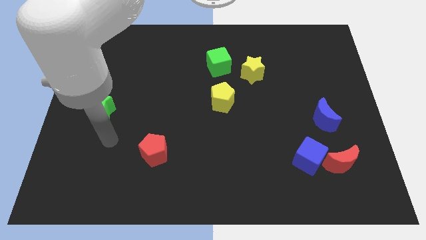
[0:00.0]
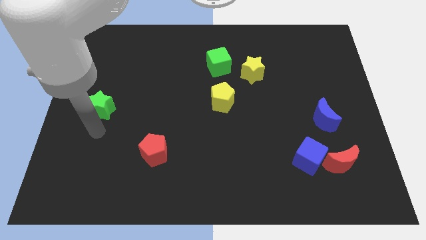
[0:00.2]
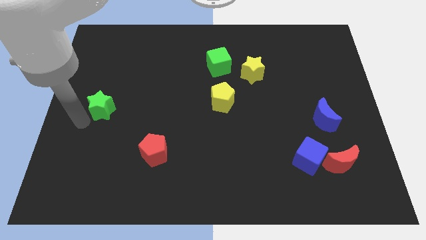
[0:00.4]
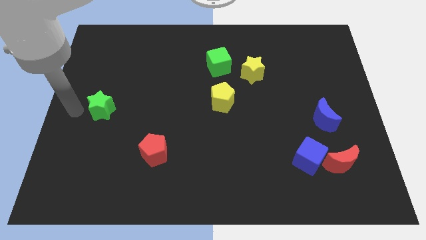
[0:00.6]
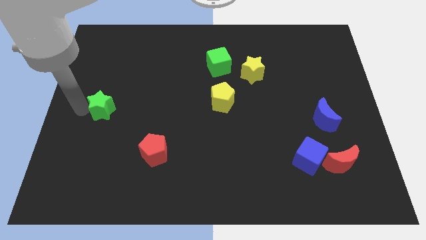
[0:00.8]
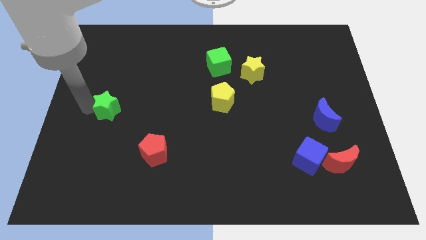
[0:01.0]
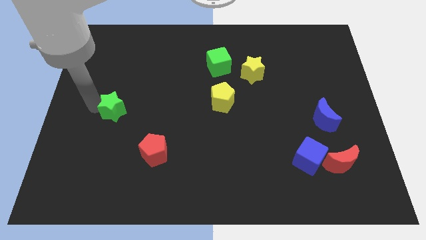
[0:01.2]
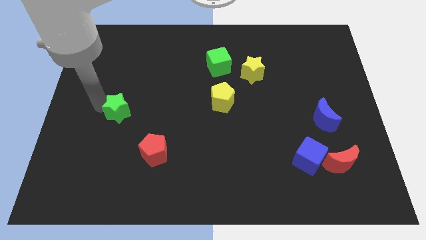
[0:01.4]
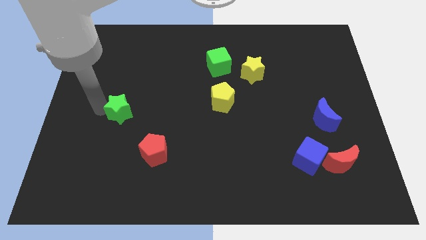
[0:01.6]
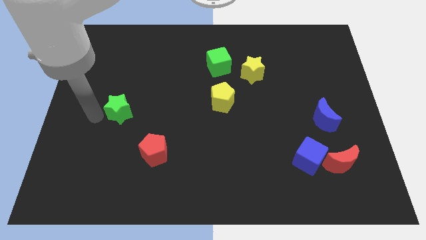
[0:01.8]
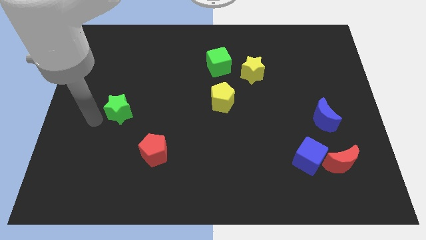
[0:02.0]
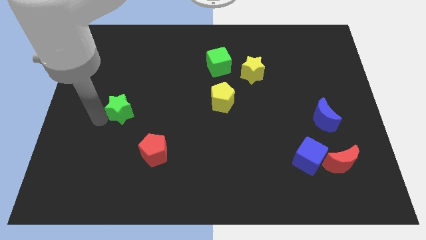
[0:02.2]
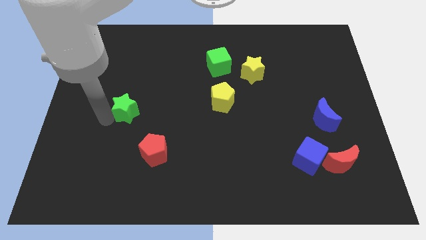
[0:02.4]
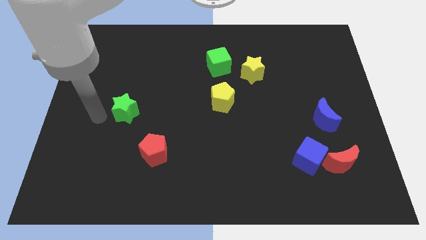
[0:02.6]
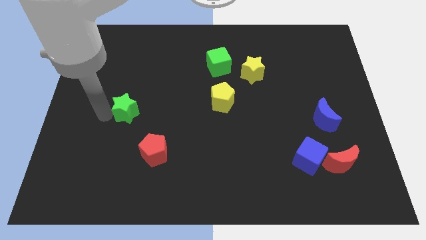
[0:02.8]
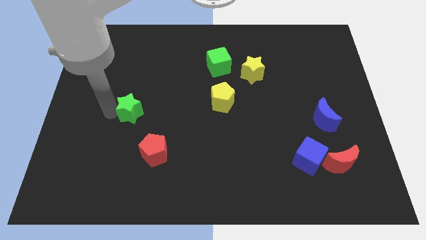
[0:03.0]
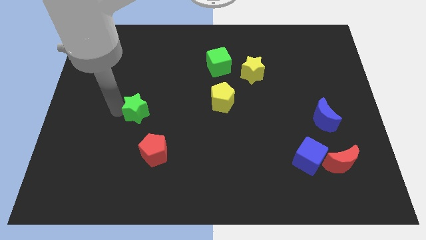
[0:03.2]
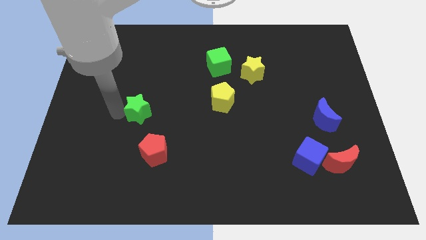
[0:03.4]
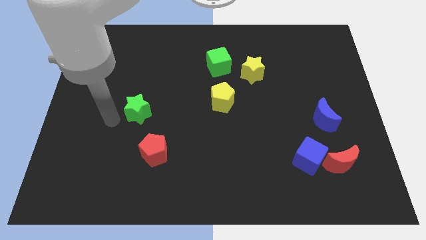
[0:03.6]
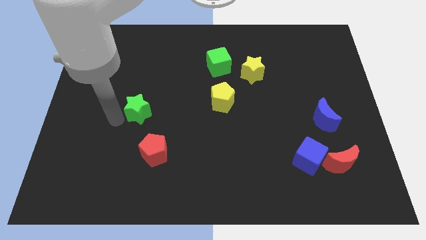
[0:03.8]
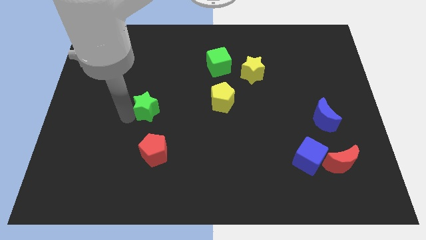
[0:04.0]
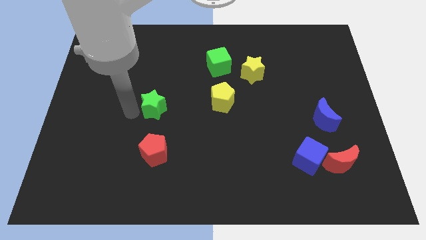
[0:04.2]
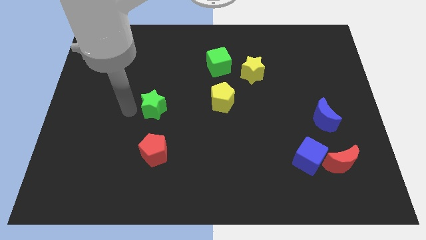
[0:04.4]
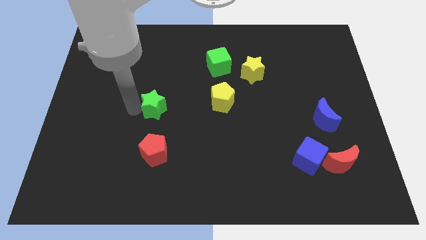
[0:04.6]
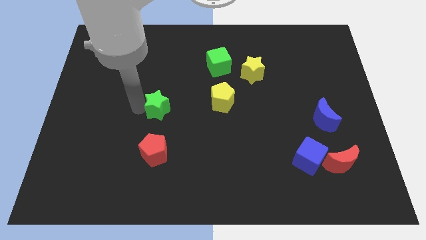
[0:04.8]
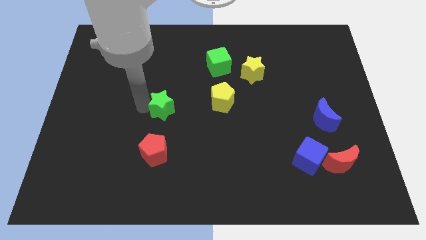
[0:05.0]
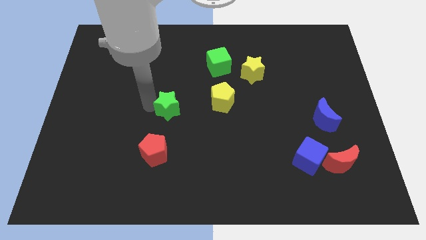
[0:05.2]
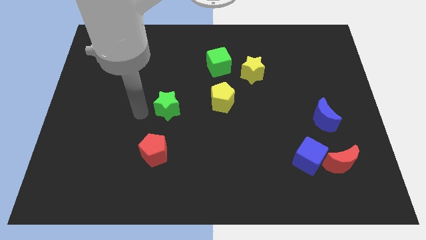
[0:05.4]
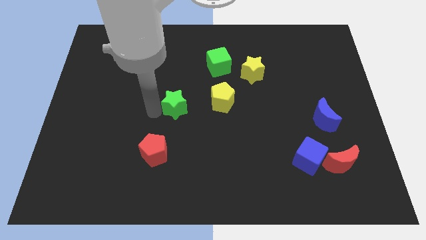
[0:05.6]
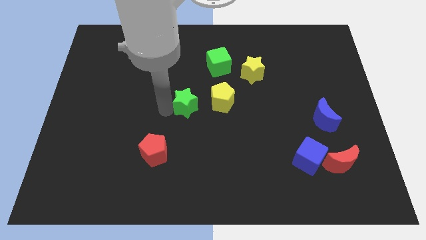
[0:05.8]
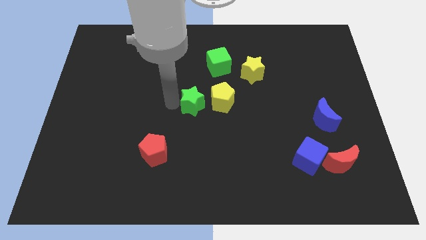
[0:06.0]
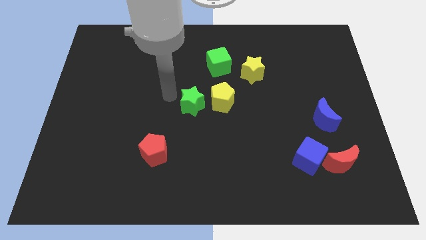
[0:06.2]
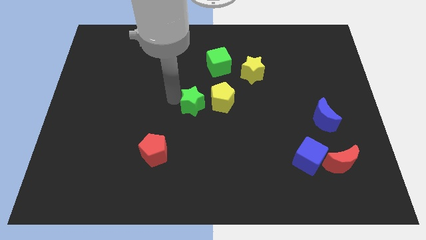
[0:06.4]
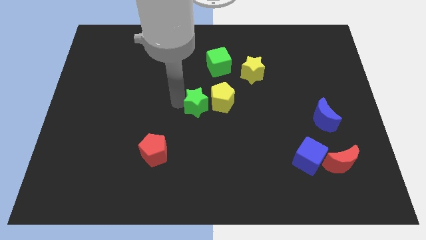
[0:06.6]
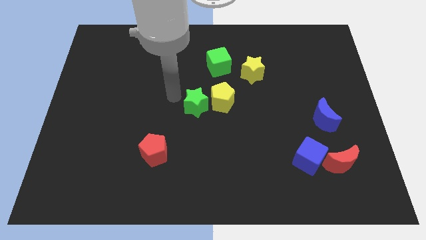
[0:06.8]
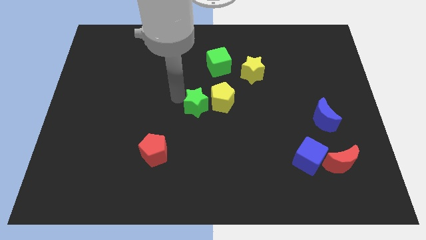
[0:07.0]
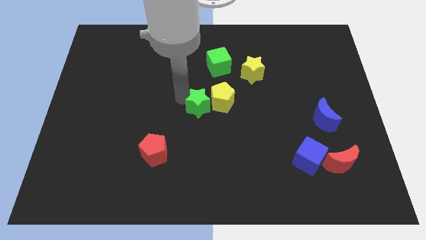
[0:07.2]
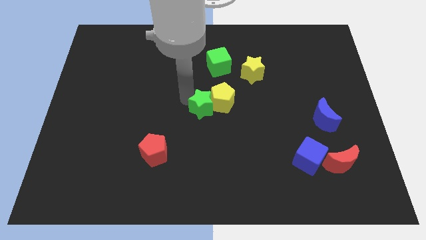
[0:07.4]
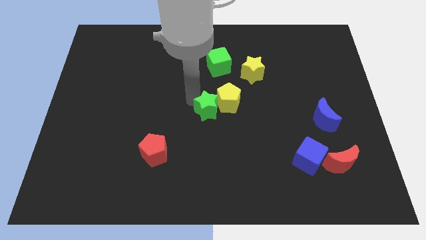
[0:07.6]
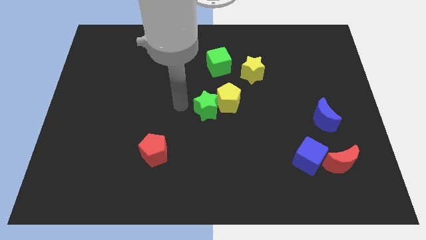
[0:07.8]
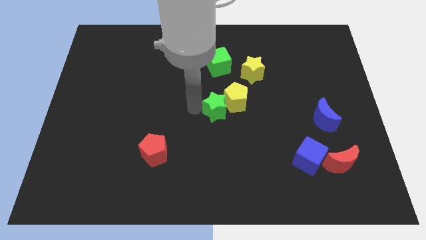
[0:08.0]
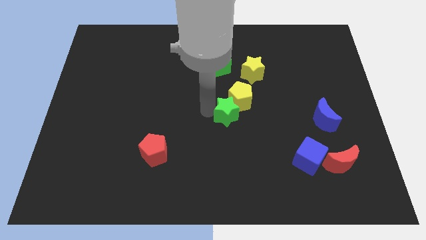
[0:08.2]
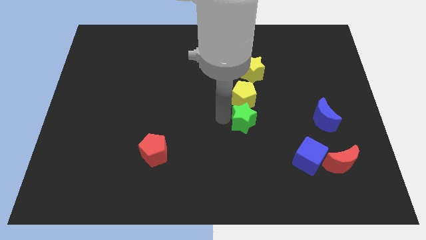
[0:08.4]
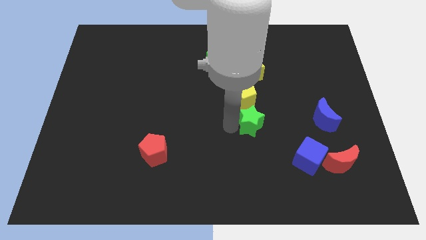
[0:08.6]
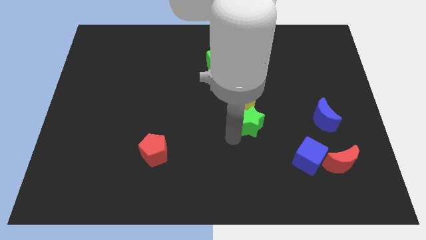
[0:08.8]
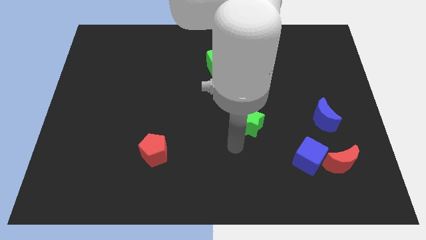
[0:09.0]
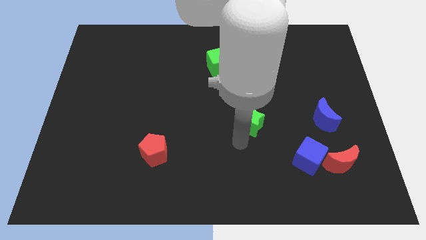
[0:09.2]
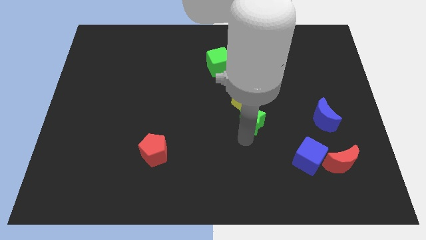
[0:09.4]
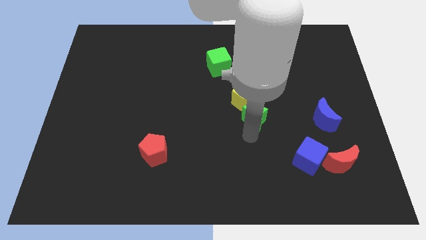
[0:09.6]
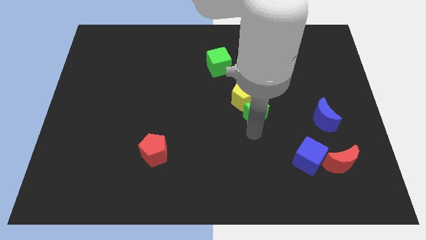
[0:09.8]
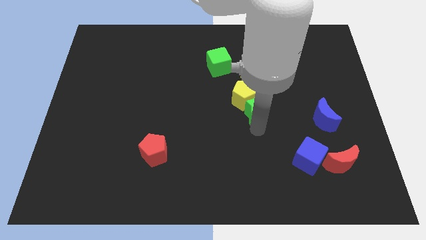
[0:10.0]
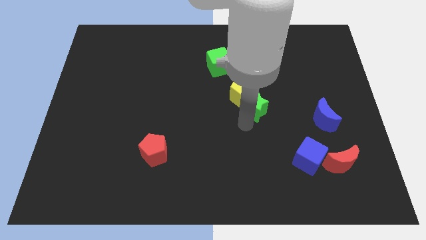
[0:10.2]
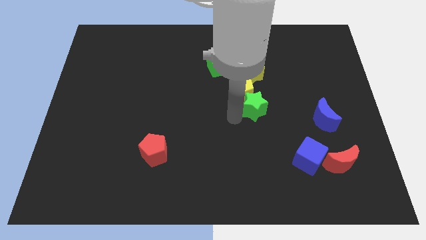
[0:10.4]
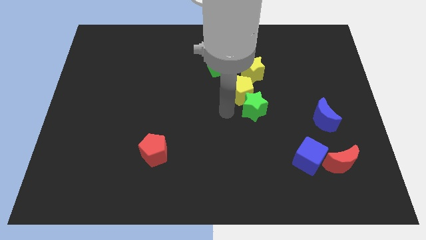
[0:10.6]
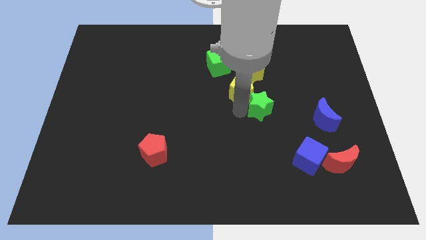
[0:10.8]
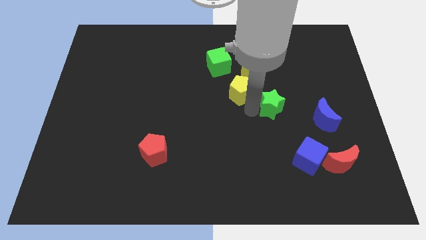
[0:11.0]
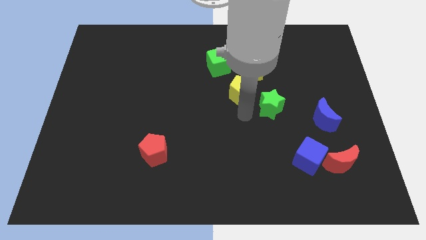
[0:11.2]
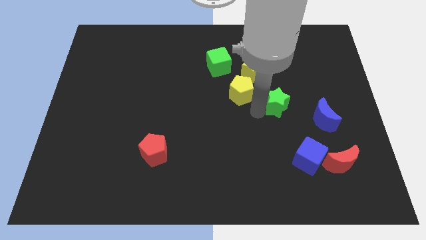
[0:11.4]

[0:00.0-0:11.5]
push the green star to the top left of the blue moon

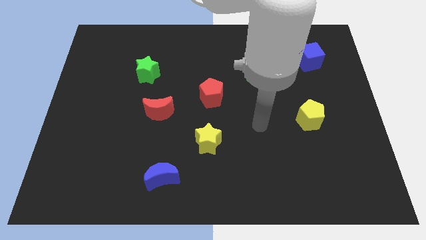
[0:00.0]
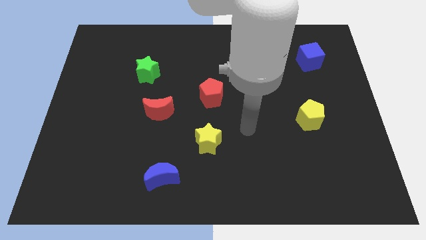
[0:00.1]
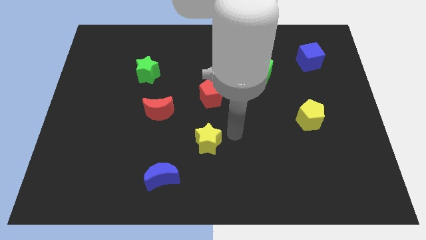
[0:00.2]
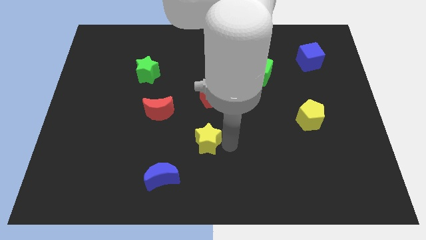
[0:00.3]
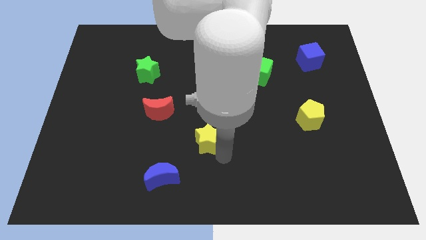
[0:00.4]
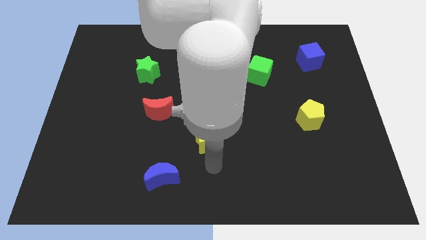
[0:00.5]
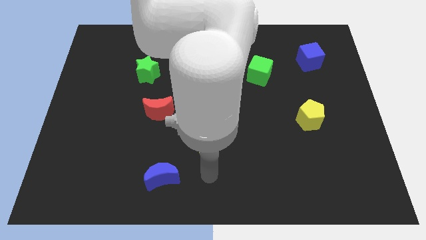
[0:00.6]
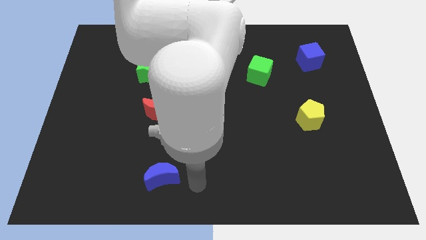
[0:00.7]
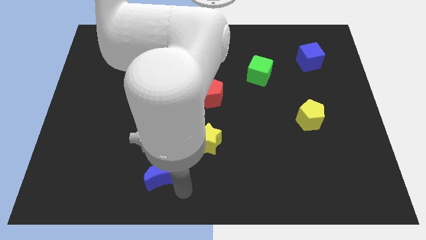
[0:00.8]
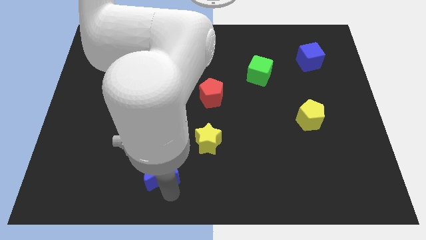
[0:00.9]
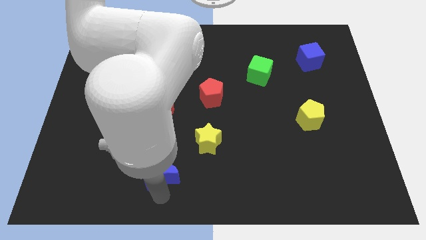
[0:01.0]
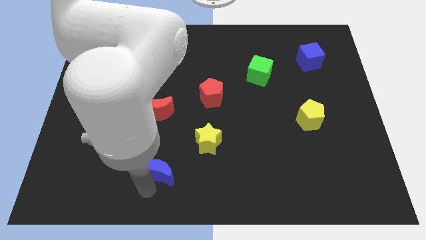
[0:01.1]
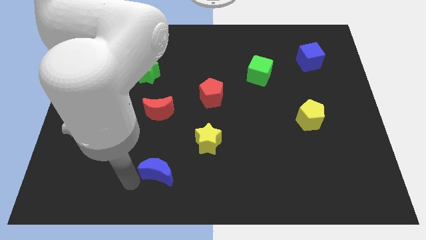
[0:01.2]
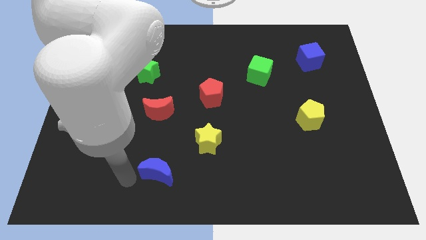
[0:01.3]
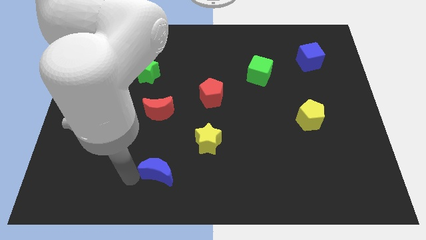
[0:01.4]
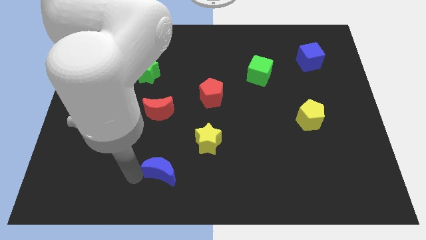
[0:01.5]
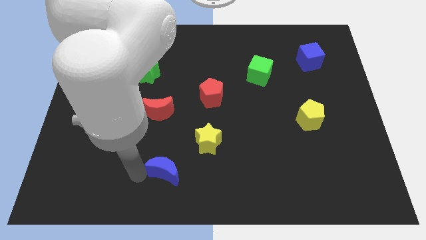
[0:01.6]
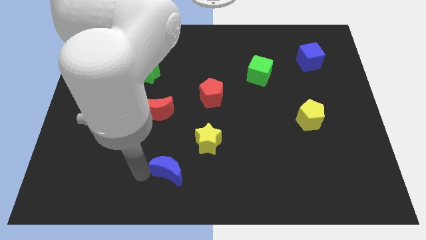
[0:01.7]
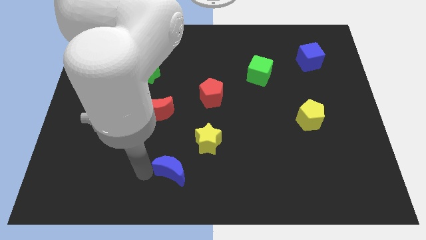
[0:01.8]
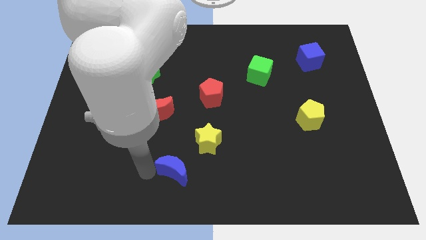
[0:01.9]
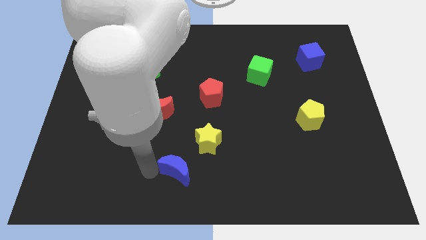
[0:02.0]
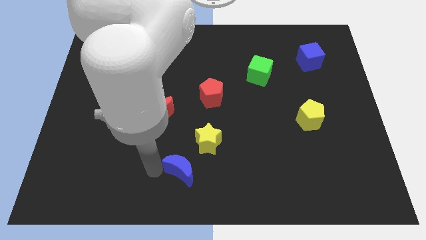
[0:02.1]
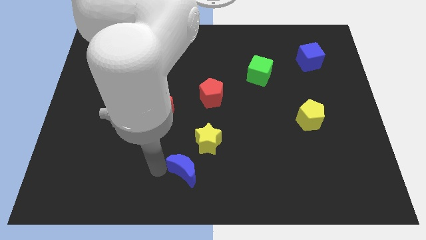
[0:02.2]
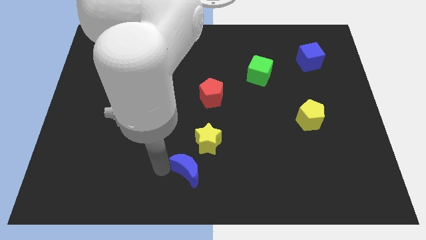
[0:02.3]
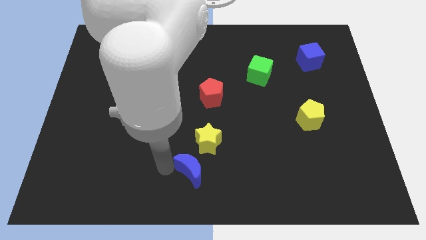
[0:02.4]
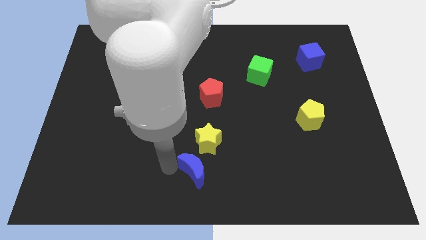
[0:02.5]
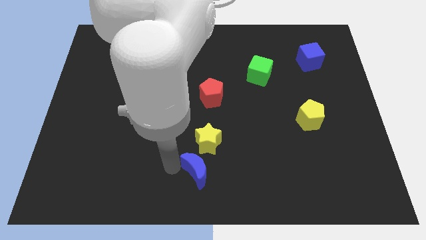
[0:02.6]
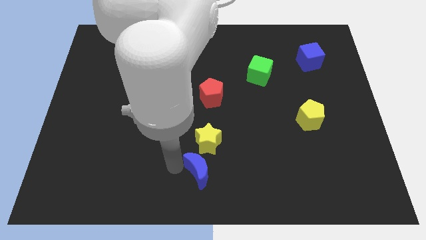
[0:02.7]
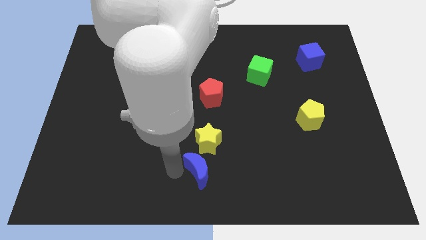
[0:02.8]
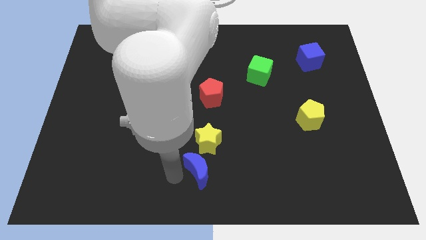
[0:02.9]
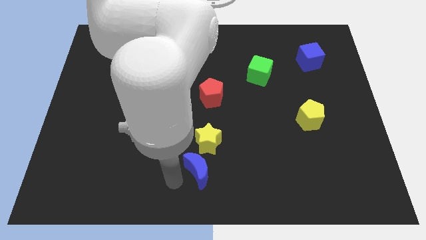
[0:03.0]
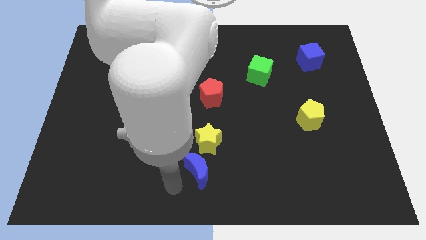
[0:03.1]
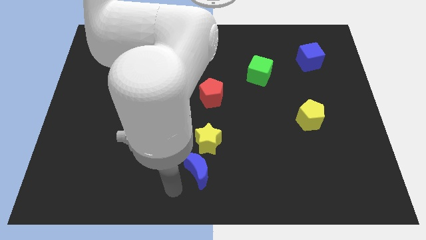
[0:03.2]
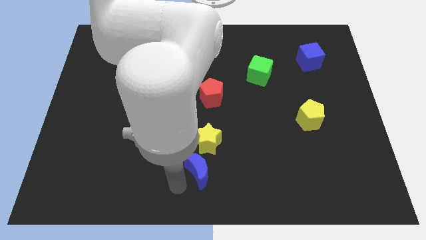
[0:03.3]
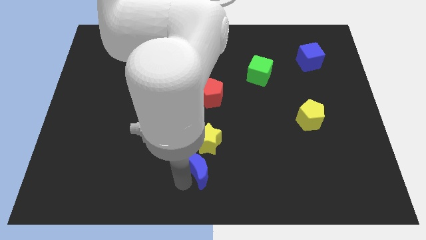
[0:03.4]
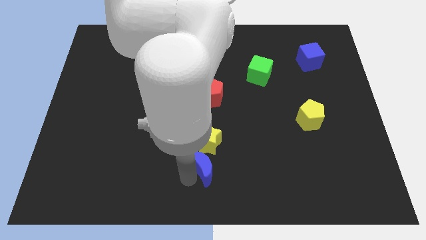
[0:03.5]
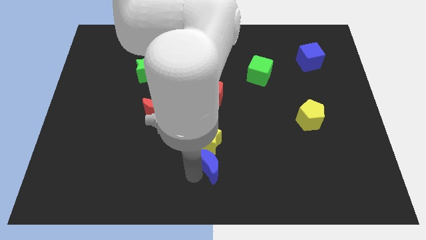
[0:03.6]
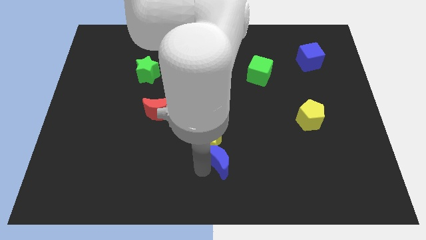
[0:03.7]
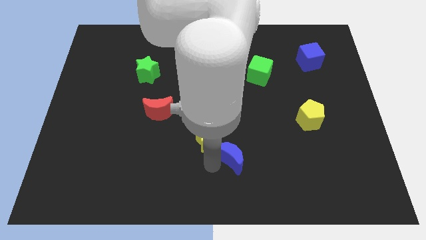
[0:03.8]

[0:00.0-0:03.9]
slide the blue moon right of the yellow star
